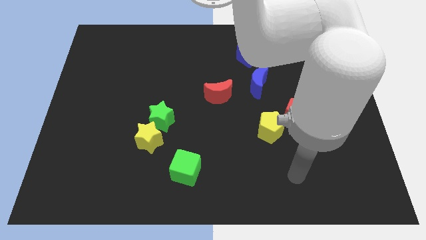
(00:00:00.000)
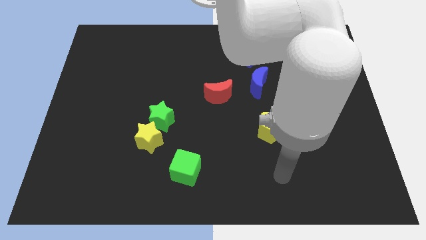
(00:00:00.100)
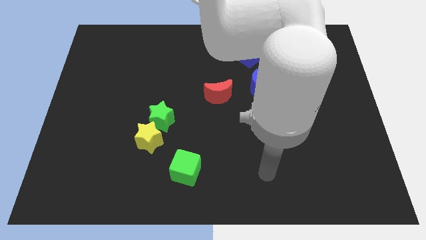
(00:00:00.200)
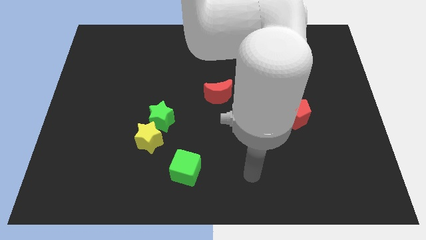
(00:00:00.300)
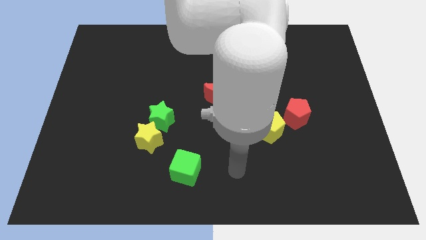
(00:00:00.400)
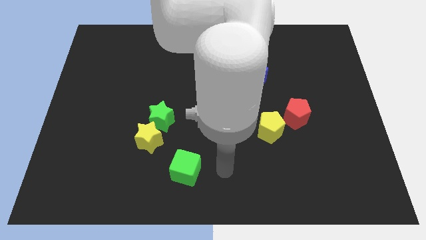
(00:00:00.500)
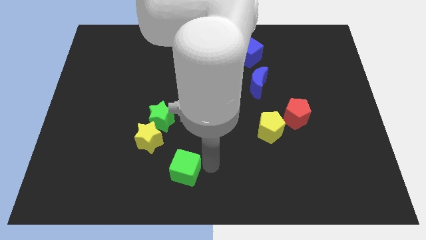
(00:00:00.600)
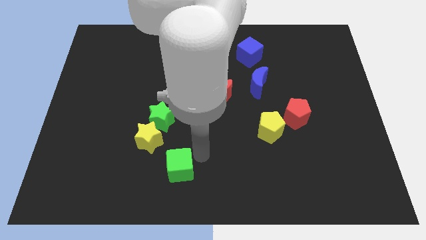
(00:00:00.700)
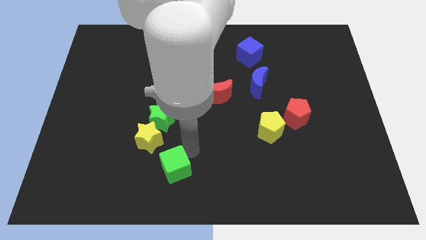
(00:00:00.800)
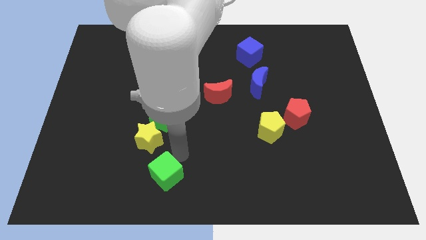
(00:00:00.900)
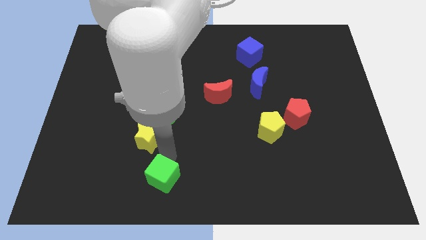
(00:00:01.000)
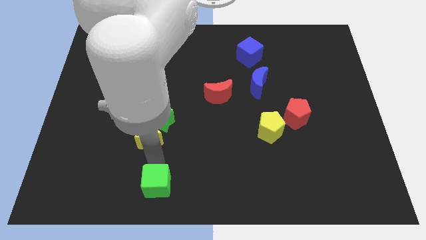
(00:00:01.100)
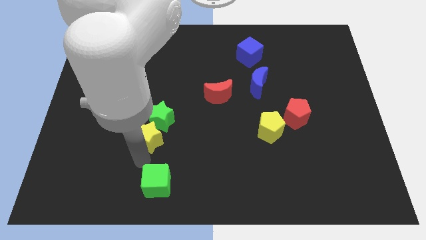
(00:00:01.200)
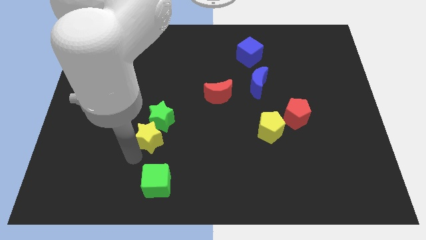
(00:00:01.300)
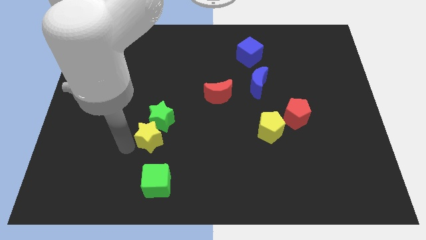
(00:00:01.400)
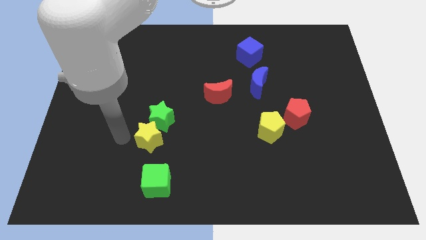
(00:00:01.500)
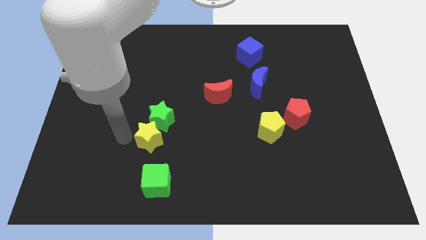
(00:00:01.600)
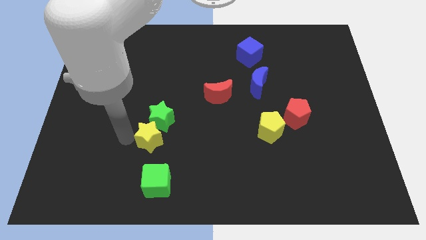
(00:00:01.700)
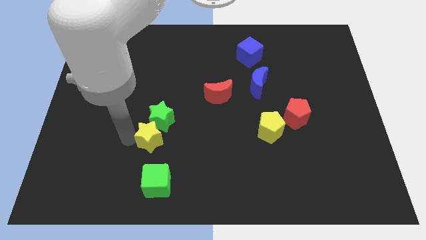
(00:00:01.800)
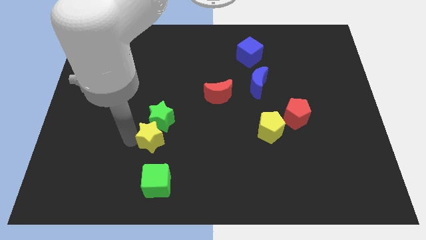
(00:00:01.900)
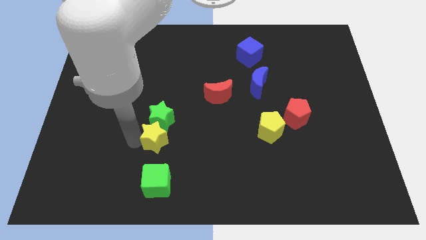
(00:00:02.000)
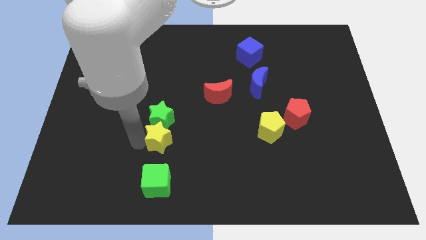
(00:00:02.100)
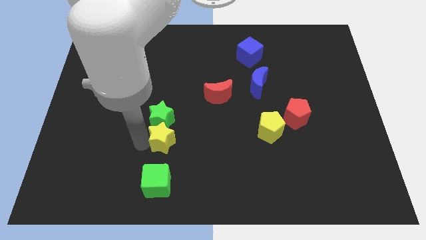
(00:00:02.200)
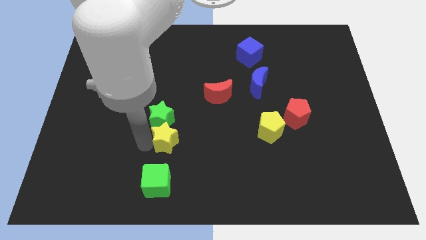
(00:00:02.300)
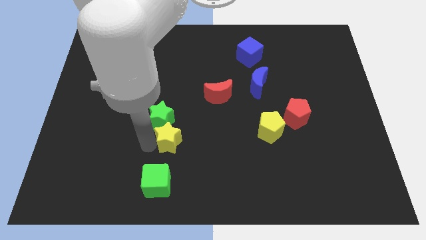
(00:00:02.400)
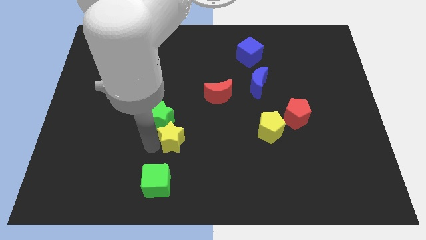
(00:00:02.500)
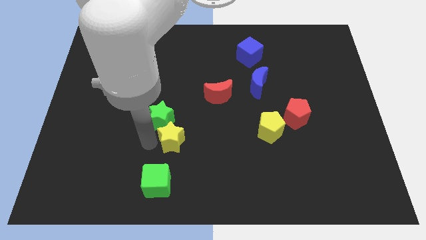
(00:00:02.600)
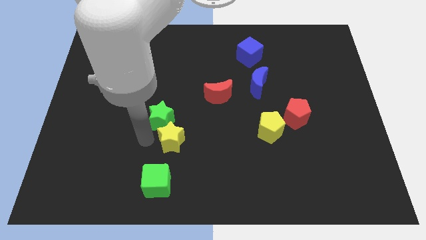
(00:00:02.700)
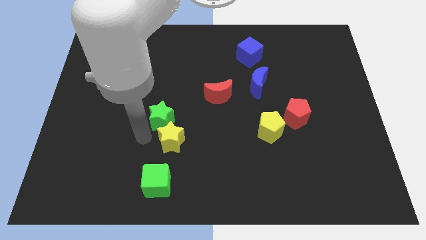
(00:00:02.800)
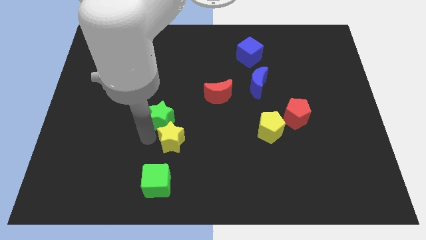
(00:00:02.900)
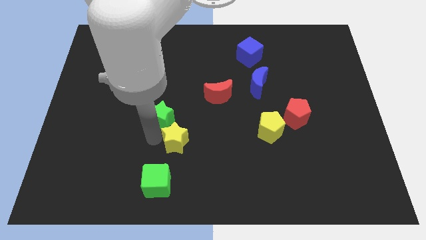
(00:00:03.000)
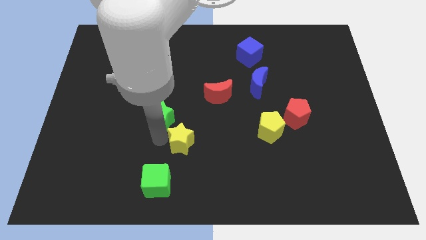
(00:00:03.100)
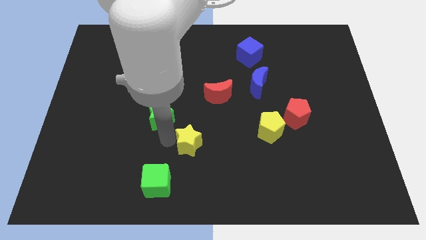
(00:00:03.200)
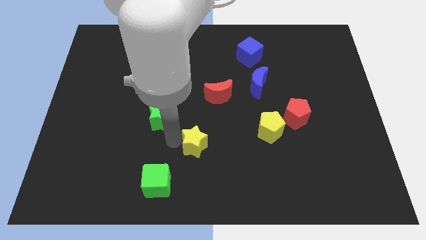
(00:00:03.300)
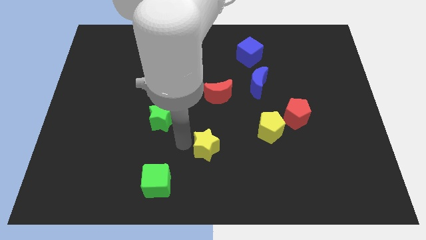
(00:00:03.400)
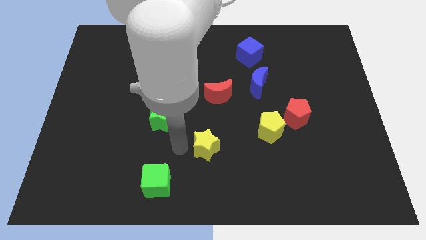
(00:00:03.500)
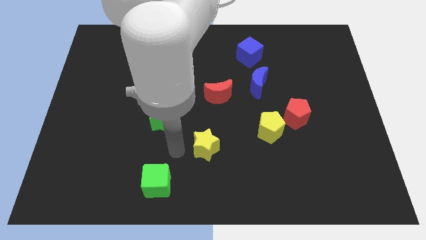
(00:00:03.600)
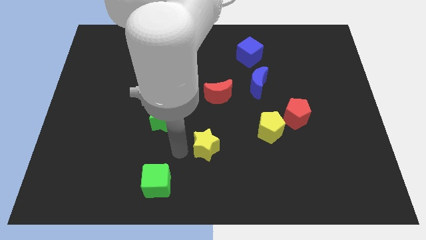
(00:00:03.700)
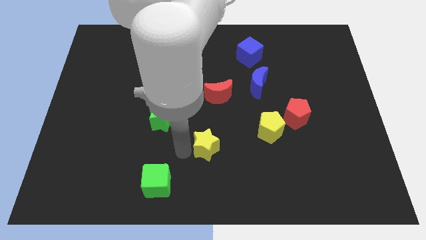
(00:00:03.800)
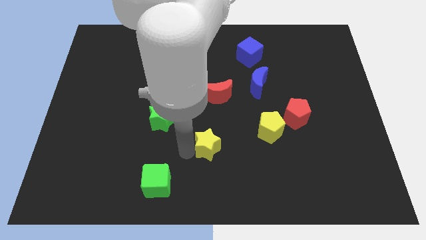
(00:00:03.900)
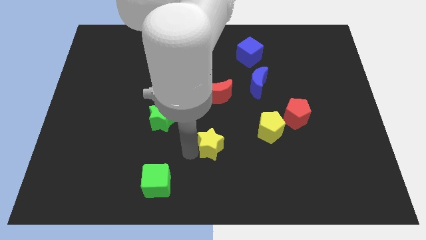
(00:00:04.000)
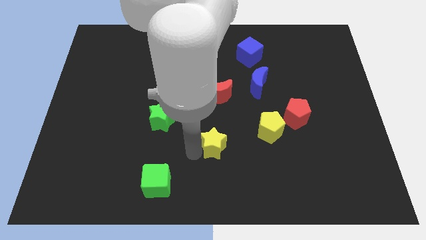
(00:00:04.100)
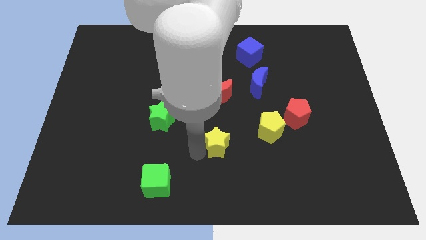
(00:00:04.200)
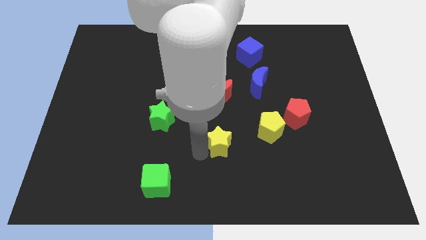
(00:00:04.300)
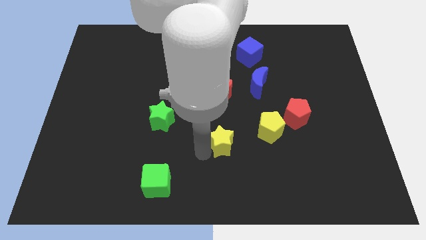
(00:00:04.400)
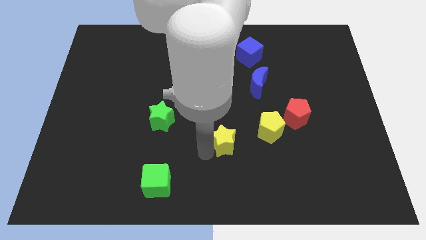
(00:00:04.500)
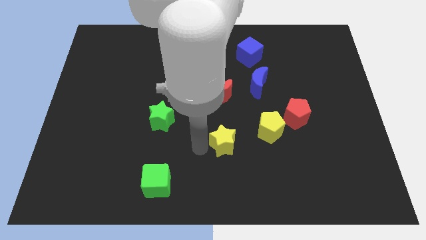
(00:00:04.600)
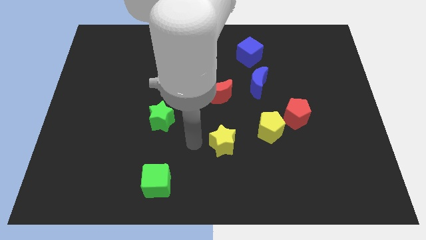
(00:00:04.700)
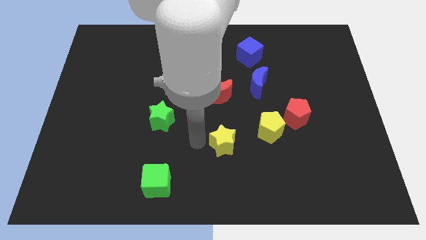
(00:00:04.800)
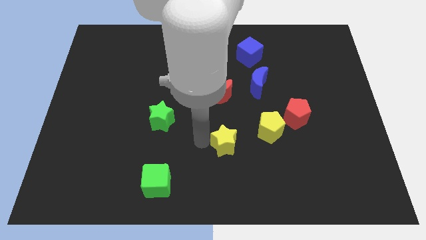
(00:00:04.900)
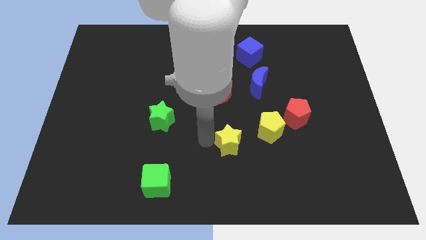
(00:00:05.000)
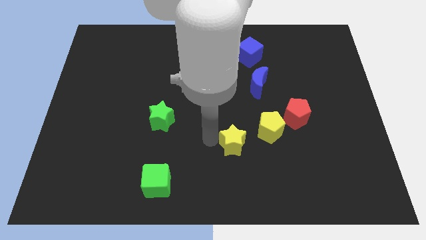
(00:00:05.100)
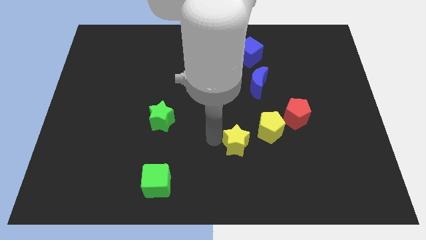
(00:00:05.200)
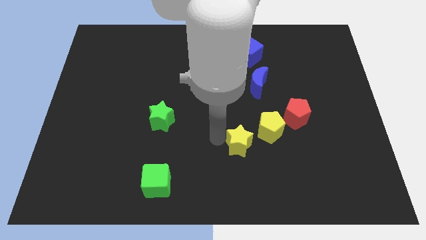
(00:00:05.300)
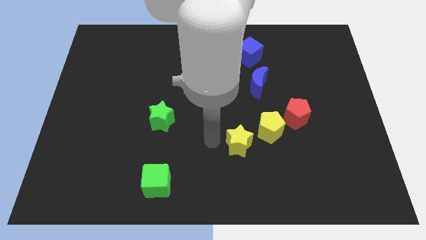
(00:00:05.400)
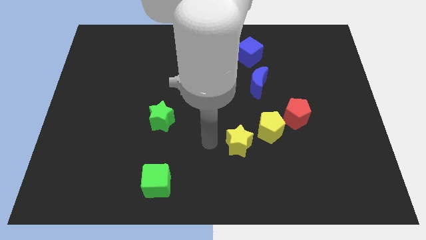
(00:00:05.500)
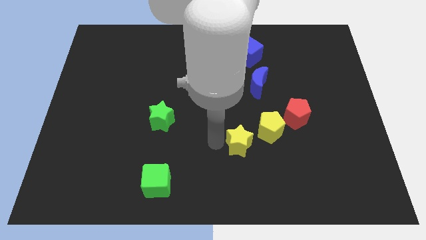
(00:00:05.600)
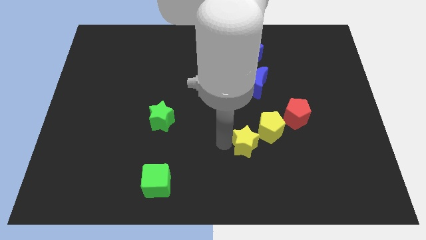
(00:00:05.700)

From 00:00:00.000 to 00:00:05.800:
push the yellow star right

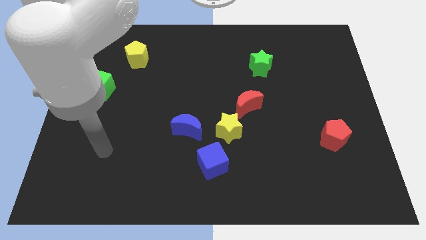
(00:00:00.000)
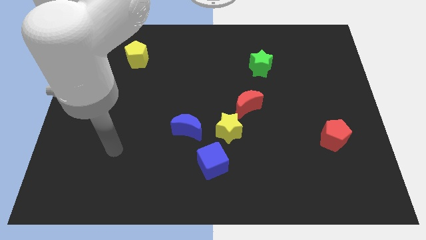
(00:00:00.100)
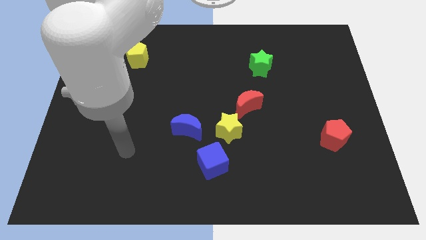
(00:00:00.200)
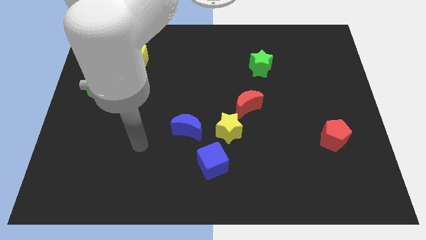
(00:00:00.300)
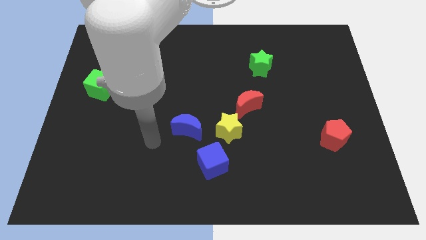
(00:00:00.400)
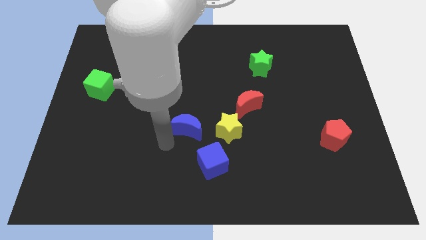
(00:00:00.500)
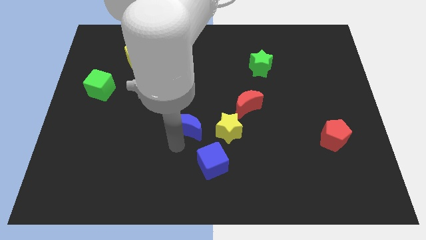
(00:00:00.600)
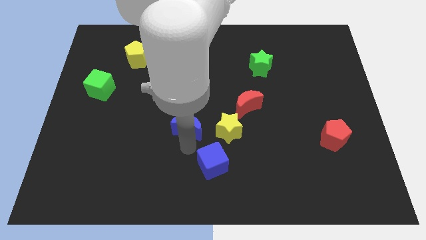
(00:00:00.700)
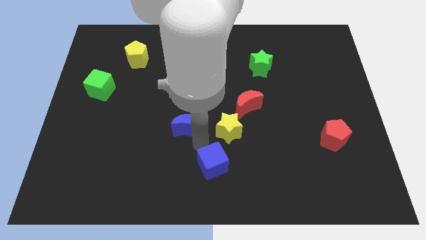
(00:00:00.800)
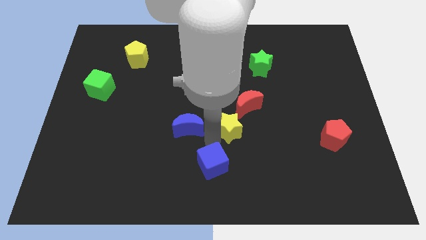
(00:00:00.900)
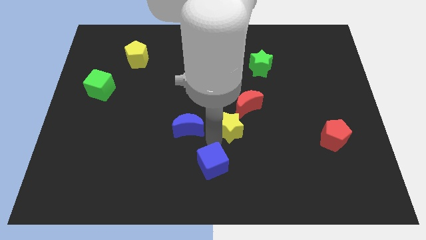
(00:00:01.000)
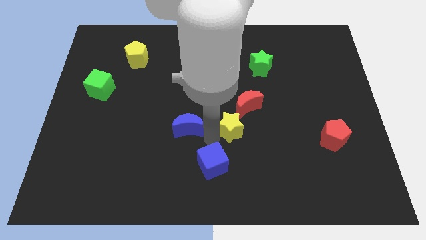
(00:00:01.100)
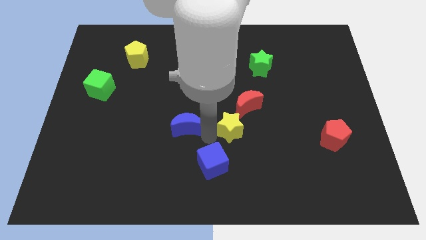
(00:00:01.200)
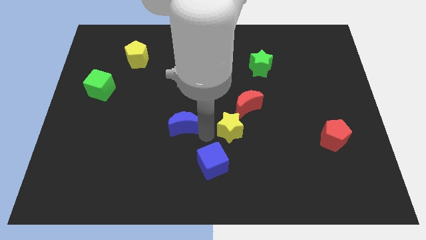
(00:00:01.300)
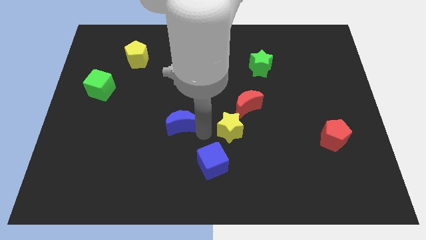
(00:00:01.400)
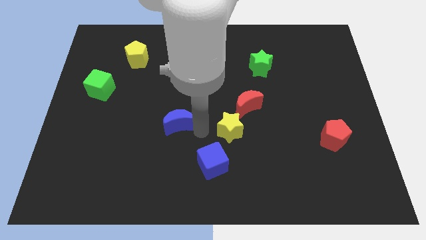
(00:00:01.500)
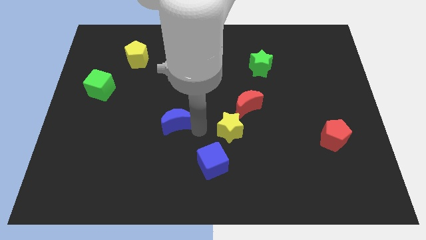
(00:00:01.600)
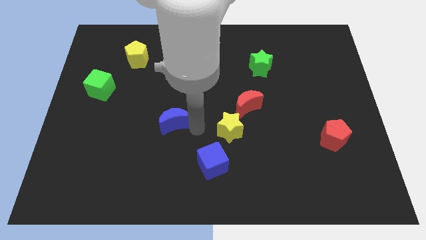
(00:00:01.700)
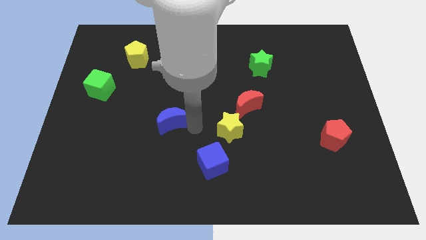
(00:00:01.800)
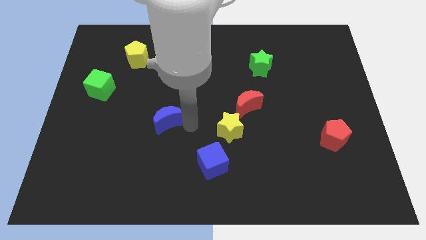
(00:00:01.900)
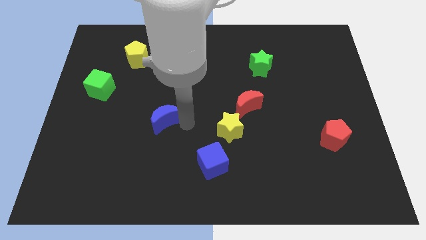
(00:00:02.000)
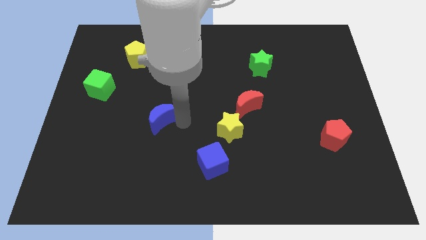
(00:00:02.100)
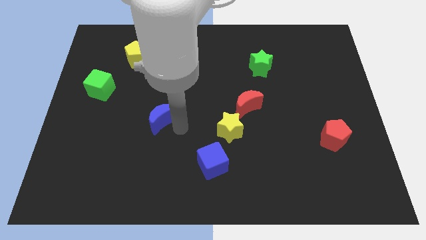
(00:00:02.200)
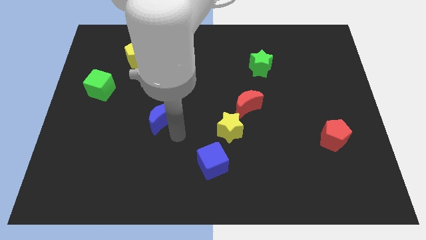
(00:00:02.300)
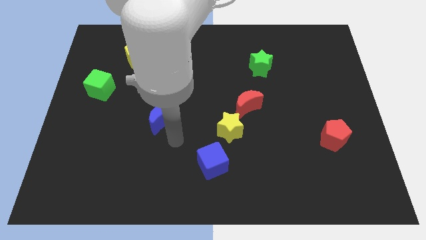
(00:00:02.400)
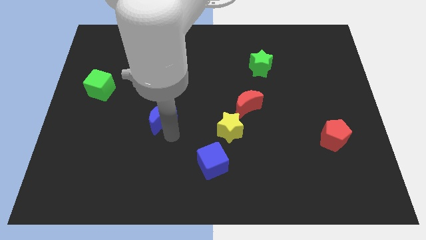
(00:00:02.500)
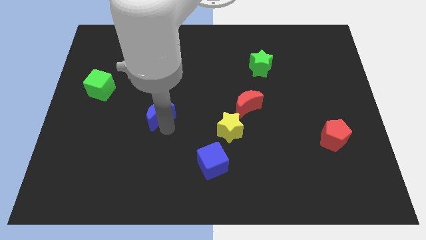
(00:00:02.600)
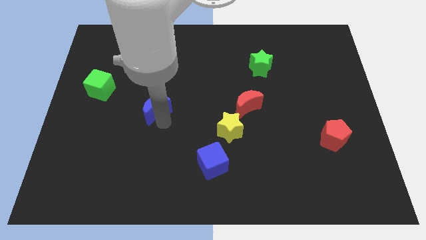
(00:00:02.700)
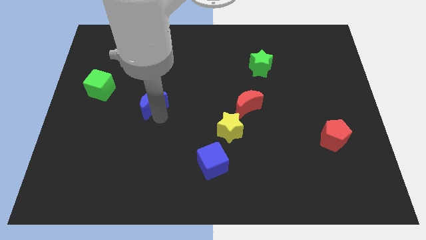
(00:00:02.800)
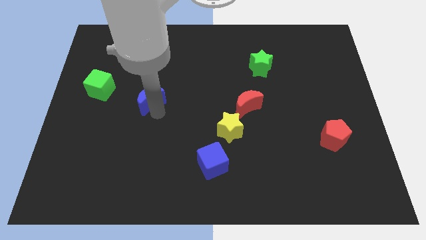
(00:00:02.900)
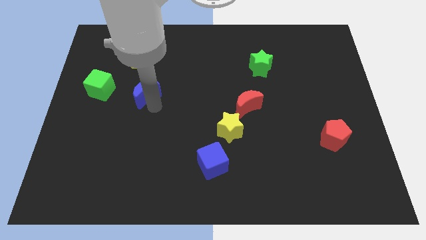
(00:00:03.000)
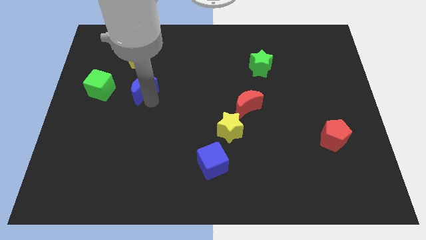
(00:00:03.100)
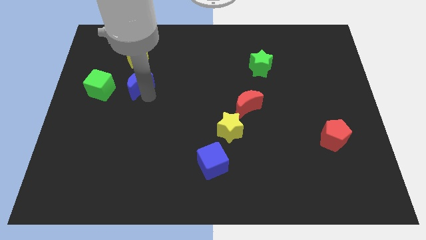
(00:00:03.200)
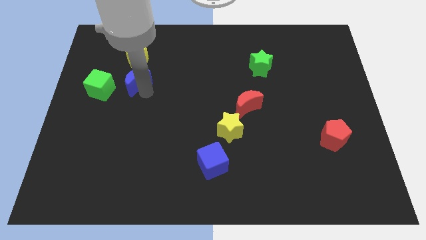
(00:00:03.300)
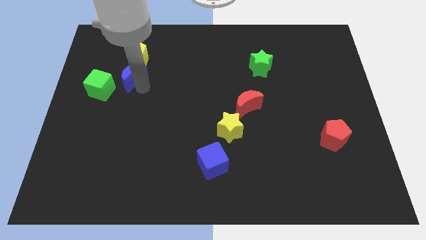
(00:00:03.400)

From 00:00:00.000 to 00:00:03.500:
slide the blue moon up and to the left
